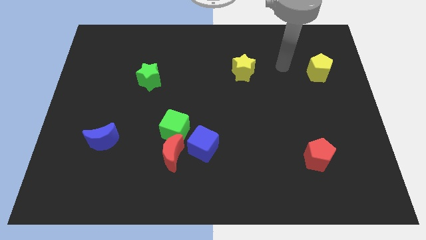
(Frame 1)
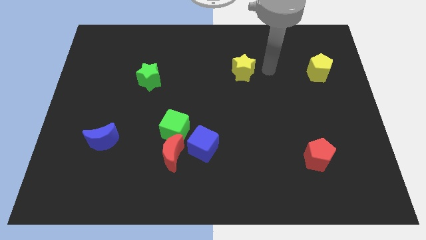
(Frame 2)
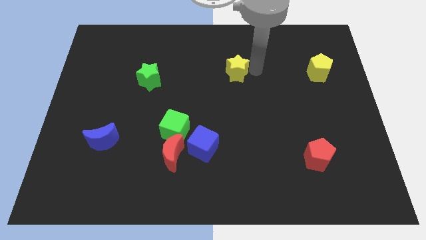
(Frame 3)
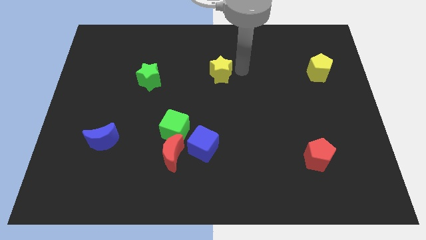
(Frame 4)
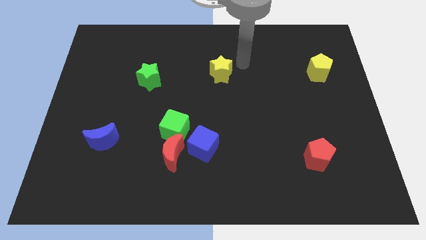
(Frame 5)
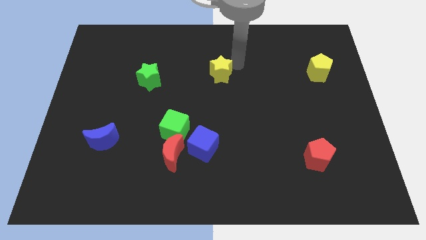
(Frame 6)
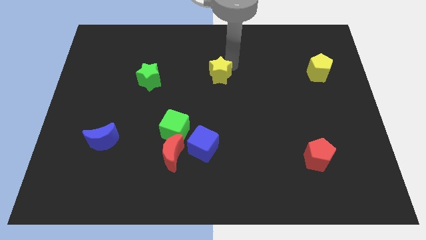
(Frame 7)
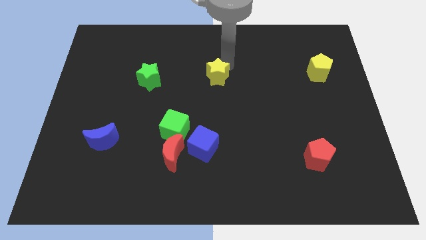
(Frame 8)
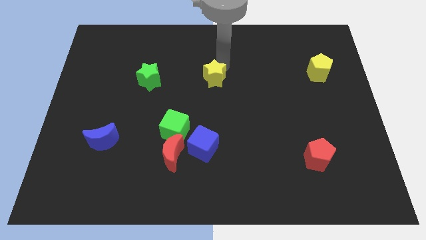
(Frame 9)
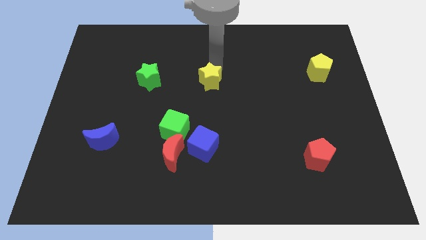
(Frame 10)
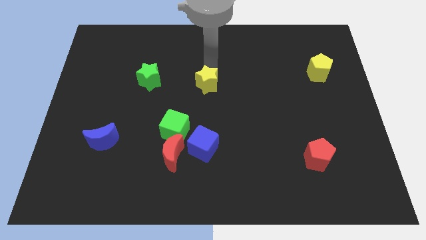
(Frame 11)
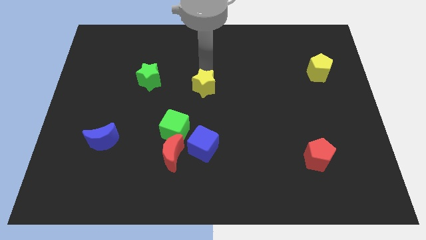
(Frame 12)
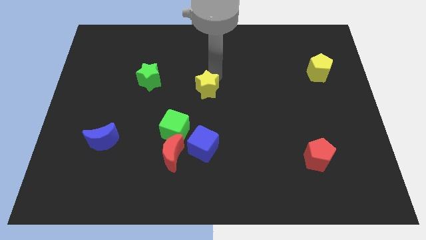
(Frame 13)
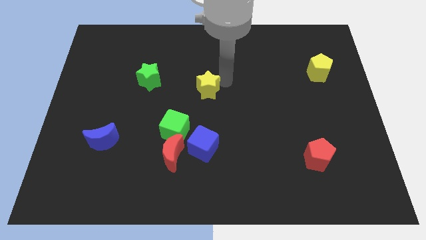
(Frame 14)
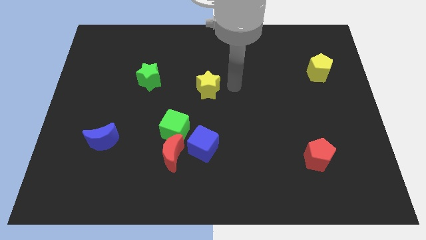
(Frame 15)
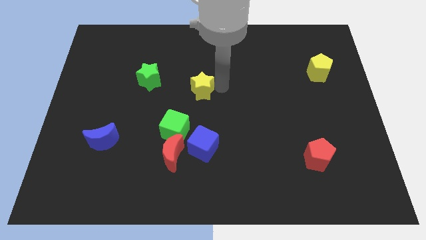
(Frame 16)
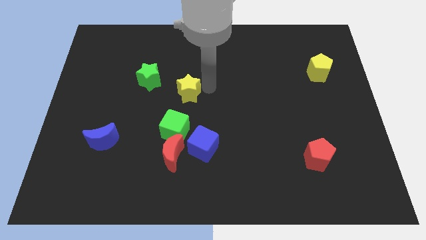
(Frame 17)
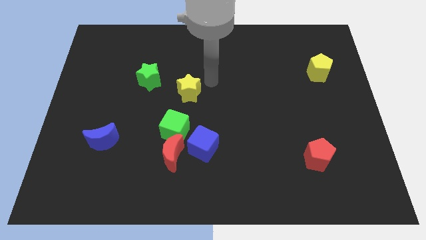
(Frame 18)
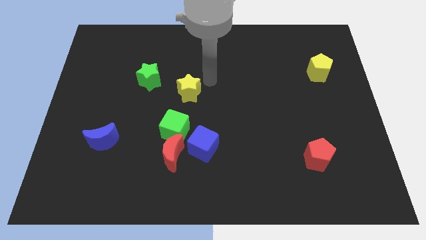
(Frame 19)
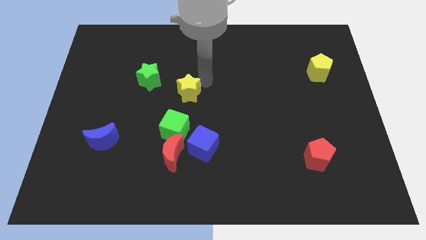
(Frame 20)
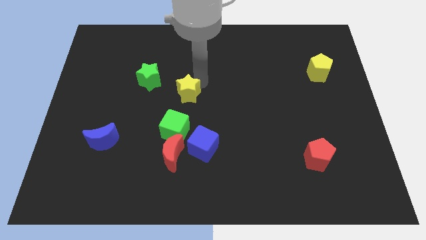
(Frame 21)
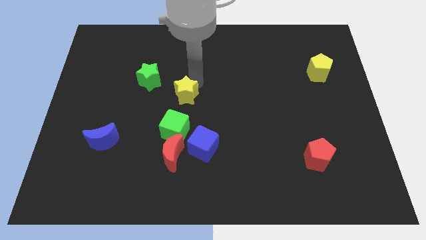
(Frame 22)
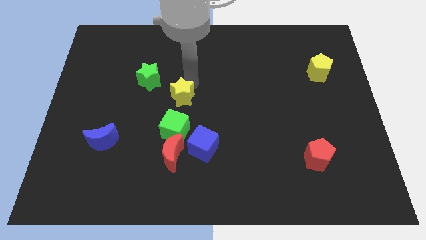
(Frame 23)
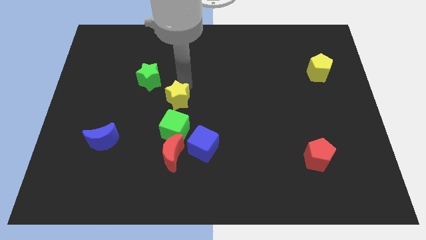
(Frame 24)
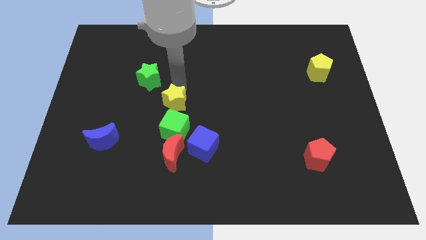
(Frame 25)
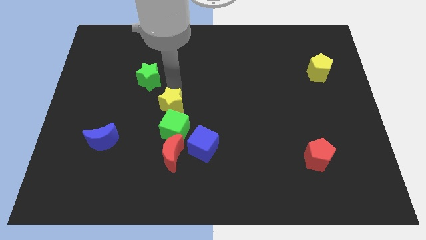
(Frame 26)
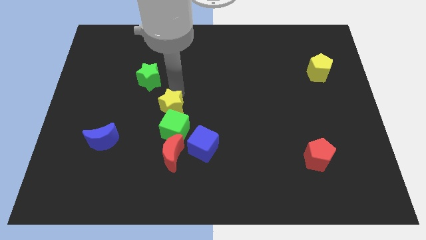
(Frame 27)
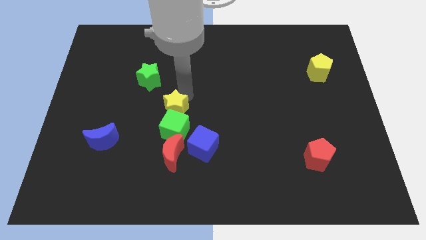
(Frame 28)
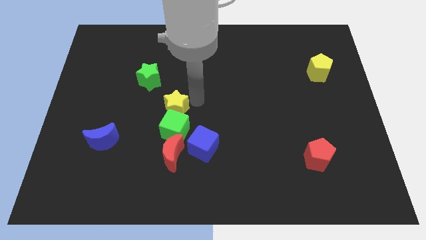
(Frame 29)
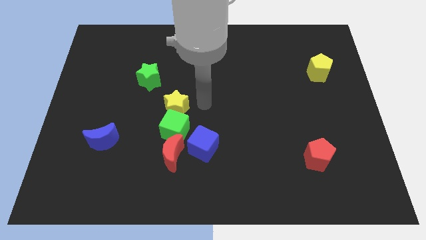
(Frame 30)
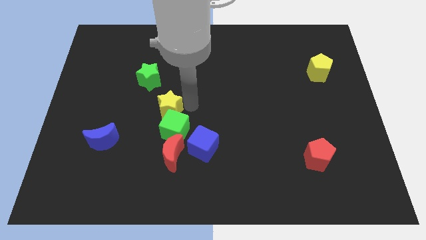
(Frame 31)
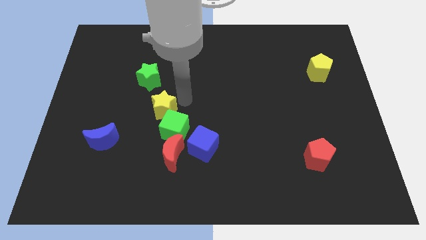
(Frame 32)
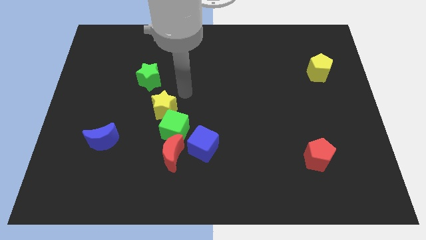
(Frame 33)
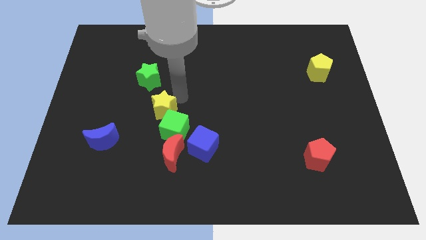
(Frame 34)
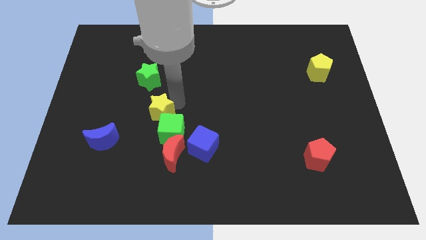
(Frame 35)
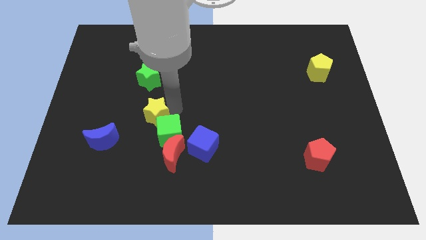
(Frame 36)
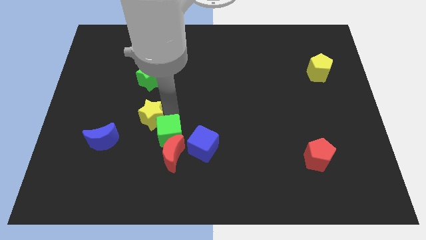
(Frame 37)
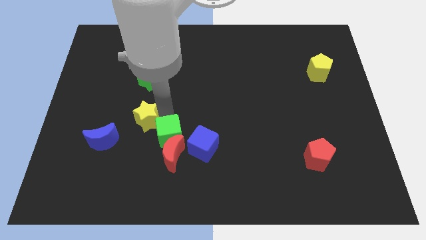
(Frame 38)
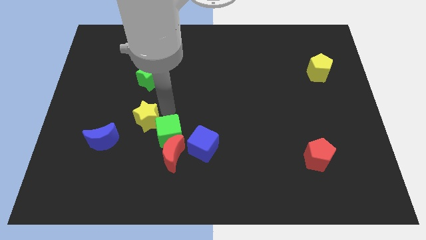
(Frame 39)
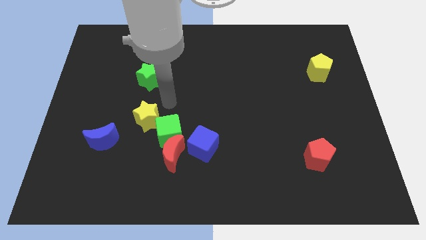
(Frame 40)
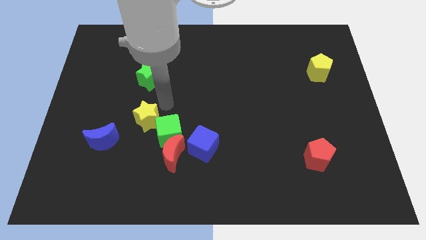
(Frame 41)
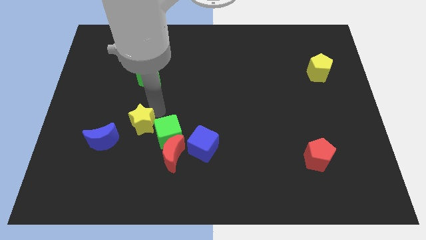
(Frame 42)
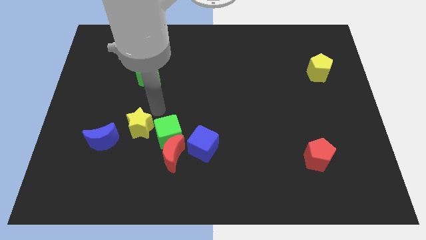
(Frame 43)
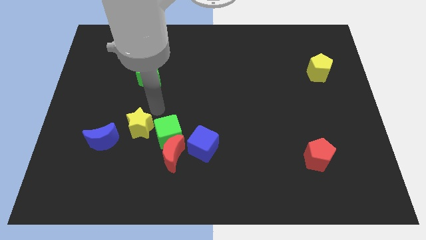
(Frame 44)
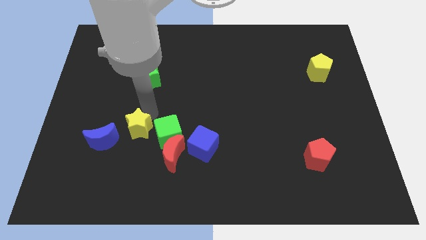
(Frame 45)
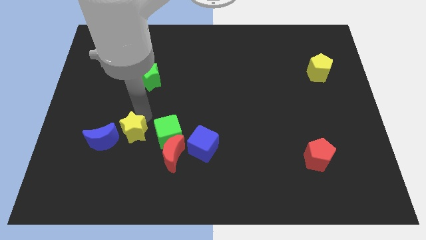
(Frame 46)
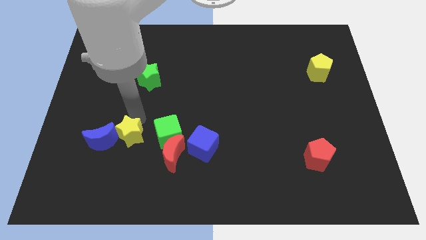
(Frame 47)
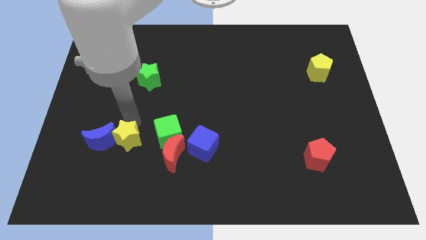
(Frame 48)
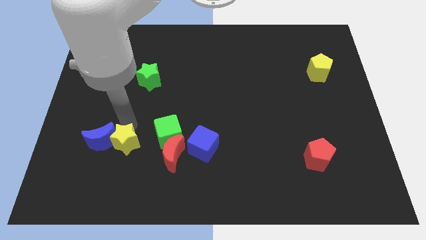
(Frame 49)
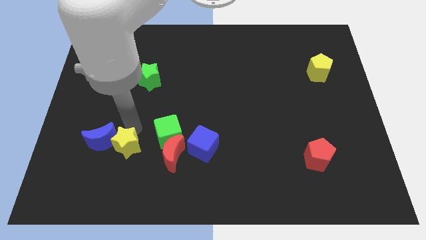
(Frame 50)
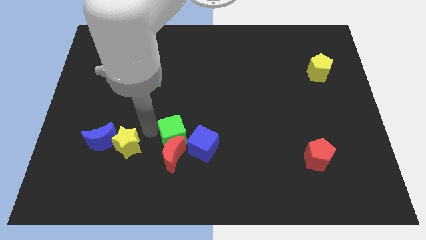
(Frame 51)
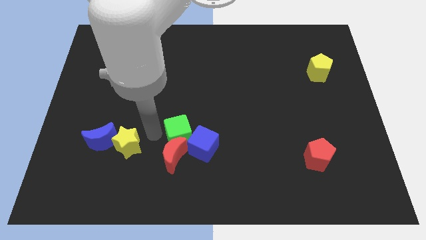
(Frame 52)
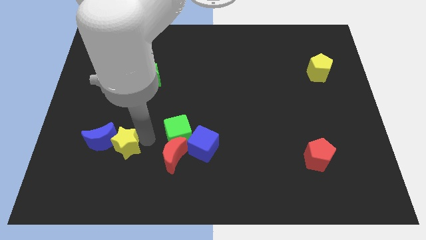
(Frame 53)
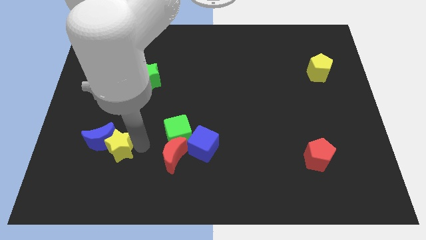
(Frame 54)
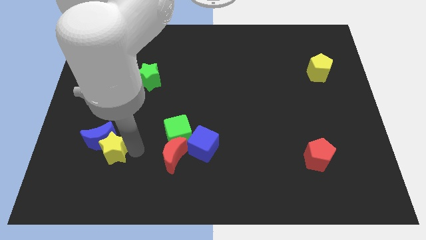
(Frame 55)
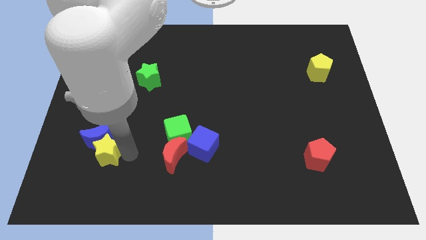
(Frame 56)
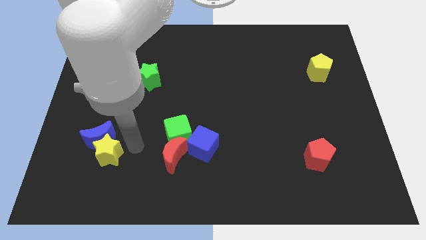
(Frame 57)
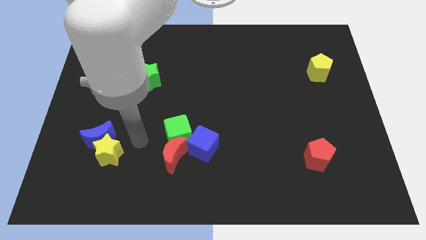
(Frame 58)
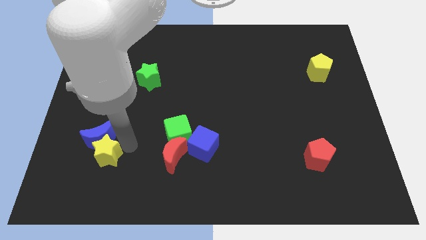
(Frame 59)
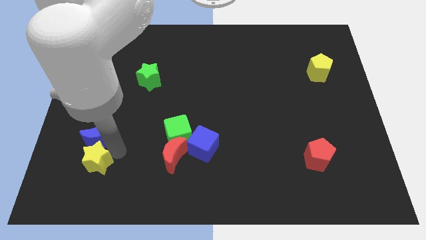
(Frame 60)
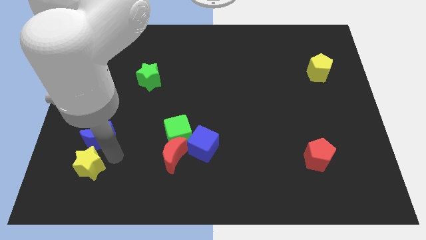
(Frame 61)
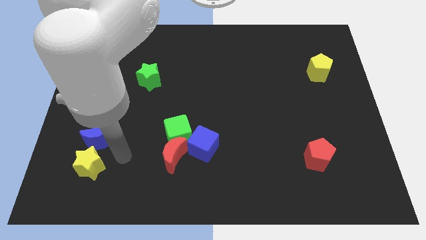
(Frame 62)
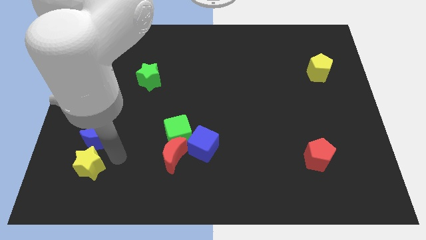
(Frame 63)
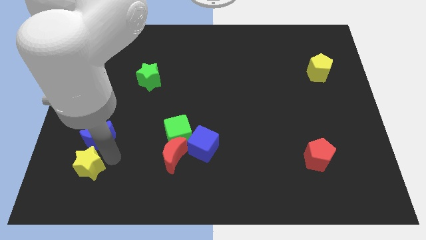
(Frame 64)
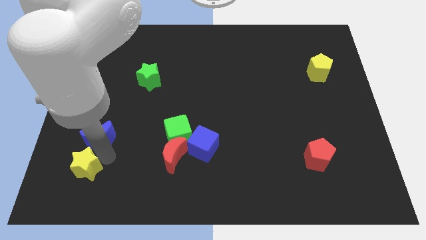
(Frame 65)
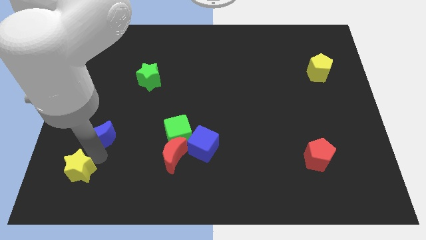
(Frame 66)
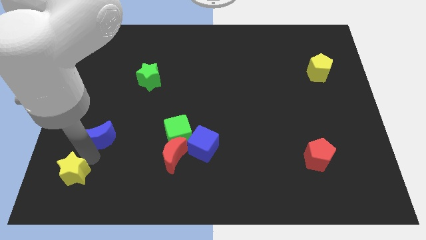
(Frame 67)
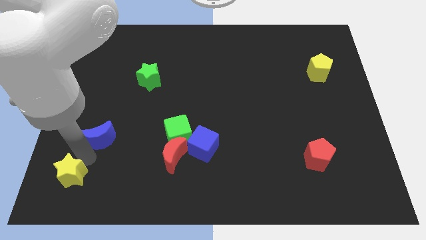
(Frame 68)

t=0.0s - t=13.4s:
put the yellow star to the bottom left of the board
